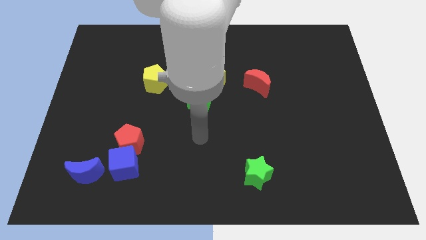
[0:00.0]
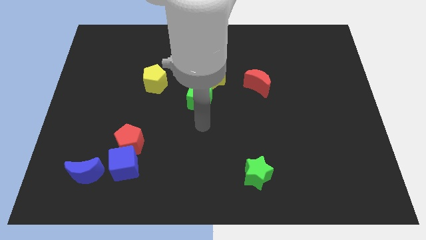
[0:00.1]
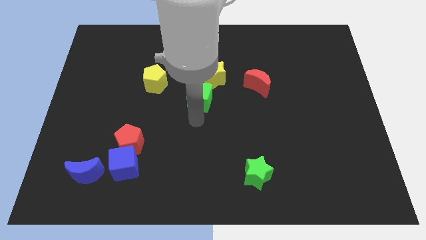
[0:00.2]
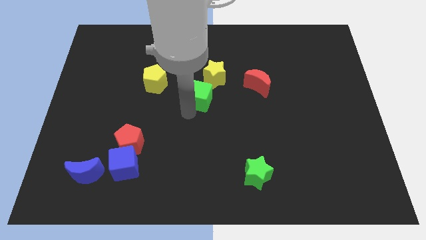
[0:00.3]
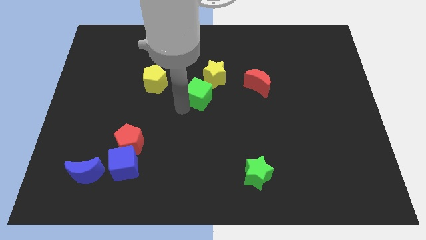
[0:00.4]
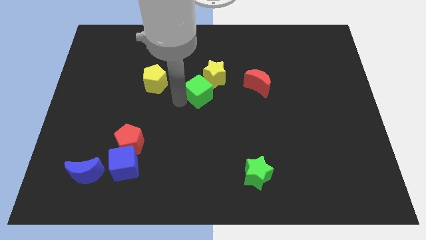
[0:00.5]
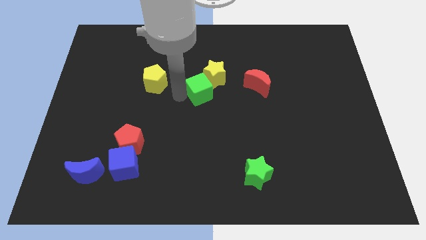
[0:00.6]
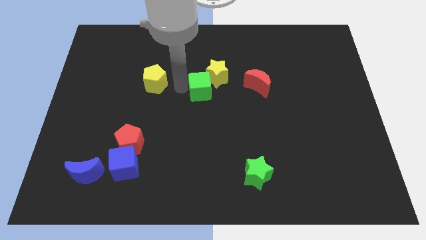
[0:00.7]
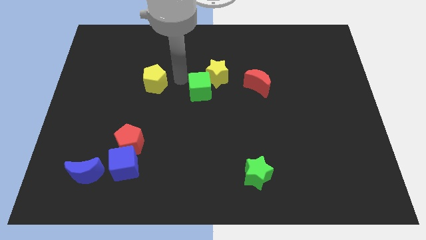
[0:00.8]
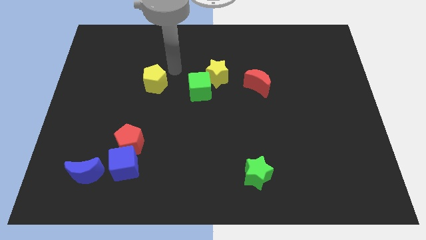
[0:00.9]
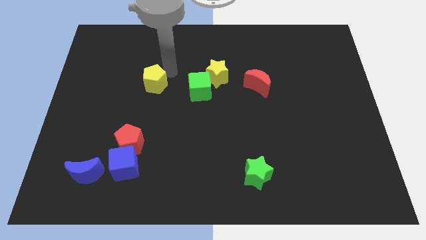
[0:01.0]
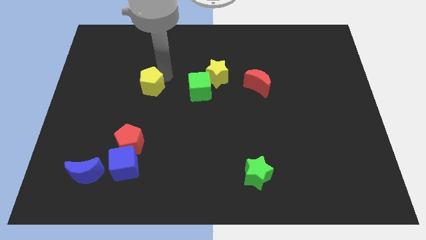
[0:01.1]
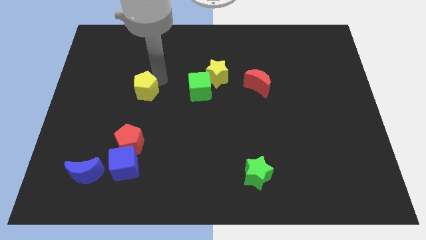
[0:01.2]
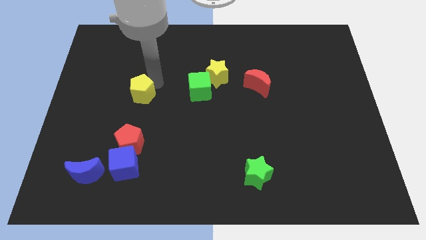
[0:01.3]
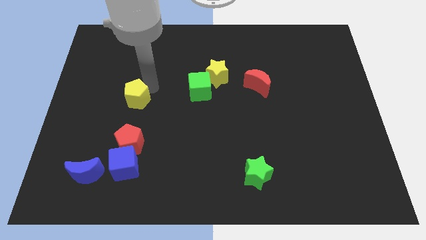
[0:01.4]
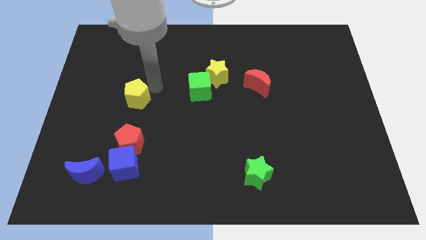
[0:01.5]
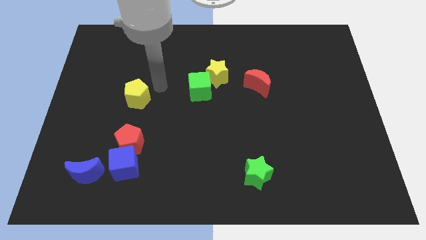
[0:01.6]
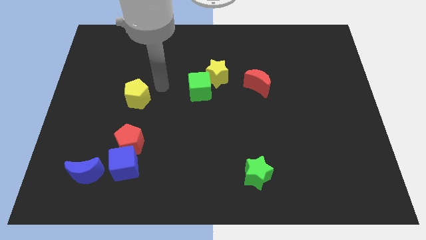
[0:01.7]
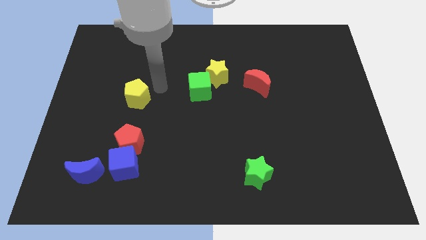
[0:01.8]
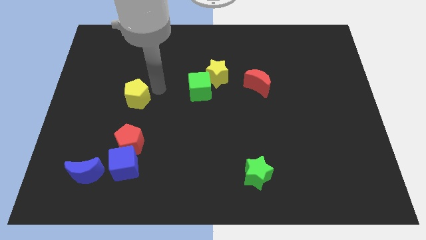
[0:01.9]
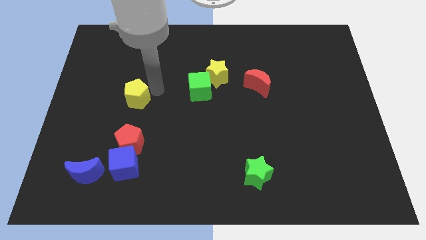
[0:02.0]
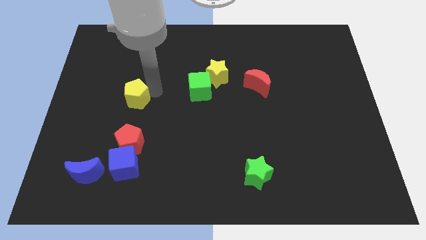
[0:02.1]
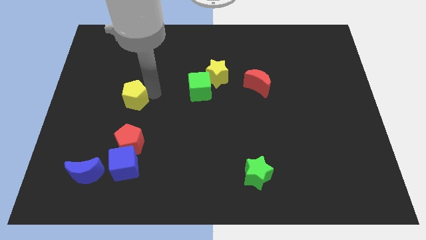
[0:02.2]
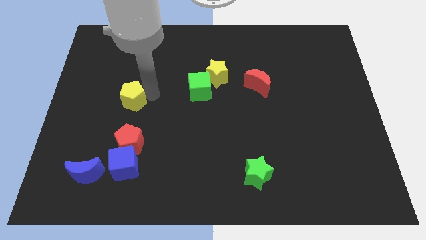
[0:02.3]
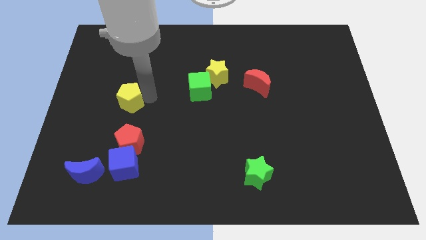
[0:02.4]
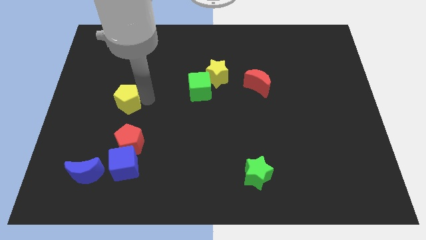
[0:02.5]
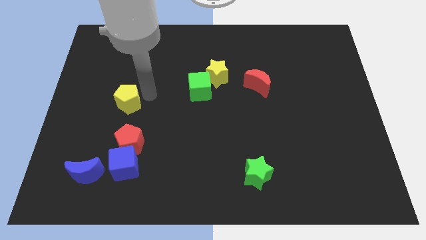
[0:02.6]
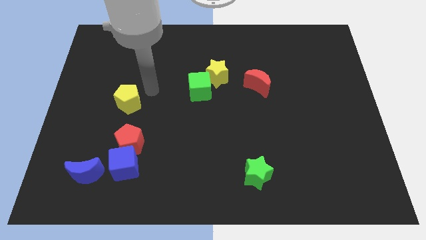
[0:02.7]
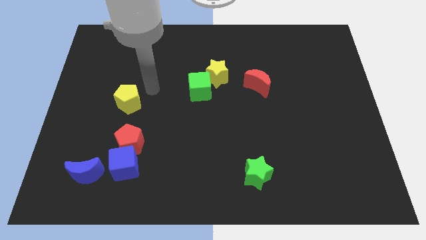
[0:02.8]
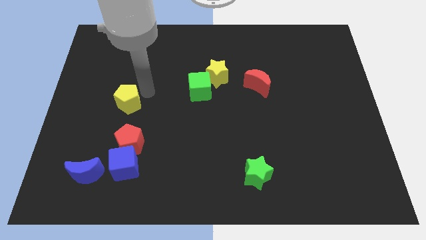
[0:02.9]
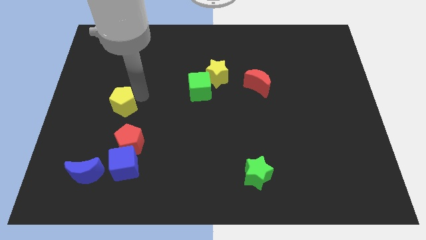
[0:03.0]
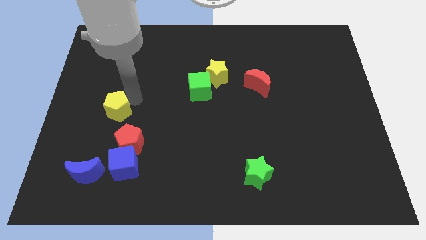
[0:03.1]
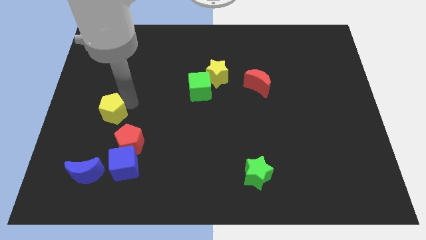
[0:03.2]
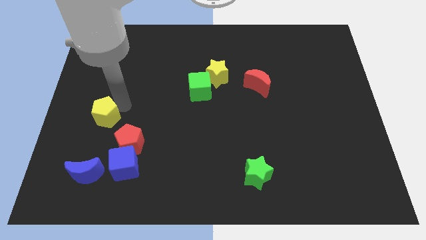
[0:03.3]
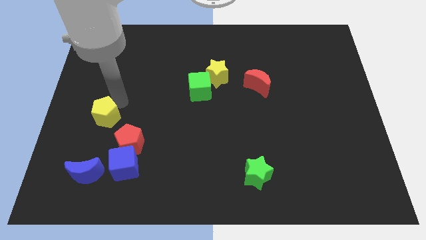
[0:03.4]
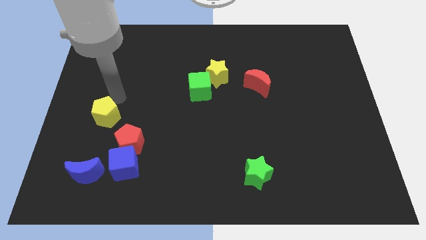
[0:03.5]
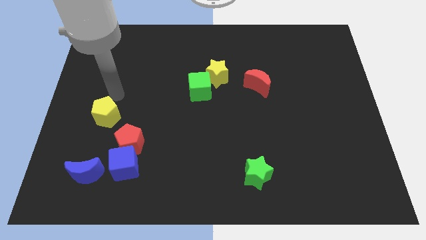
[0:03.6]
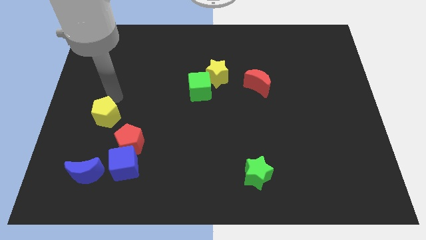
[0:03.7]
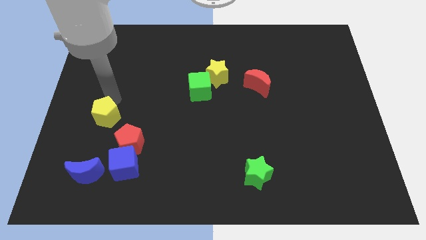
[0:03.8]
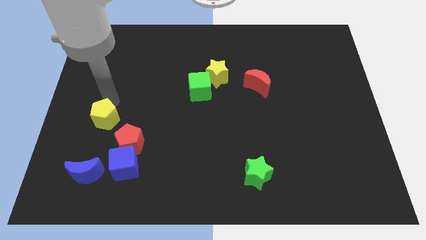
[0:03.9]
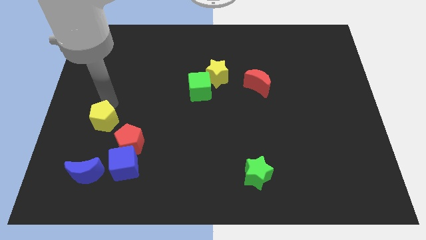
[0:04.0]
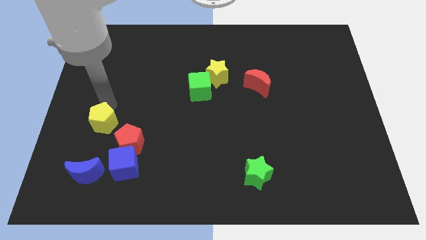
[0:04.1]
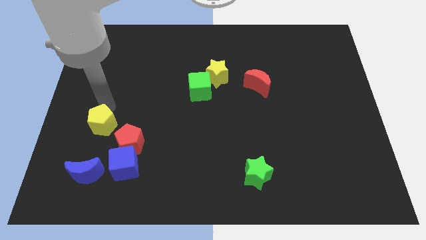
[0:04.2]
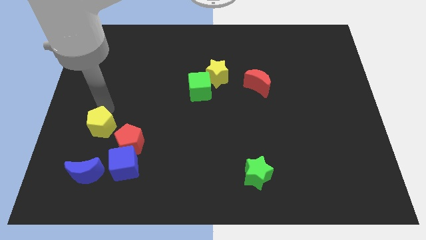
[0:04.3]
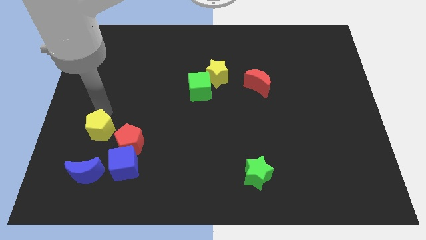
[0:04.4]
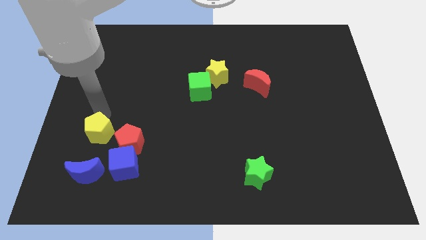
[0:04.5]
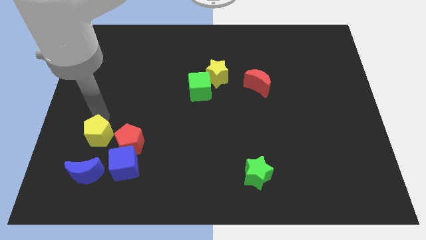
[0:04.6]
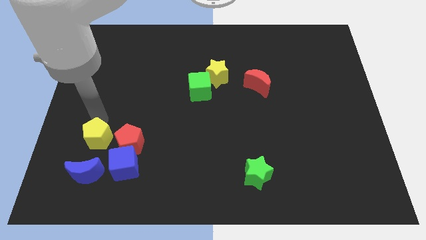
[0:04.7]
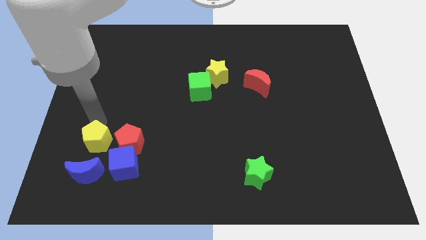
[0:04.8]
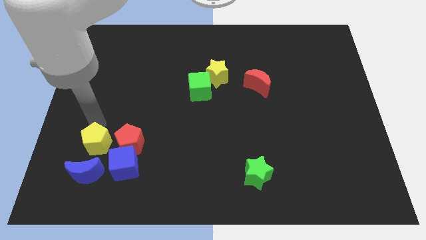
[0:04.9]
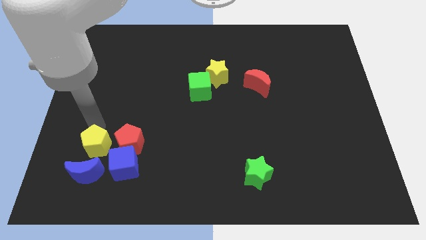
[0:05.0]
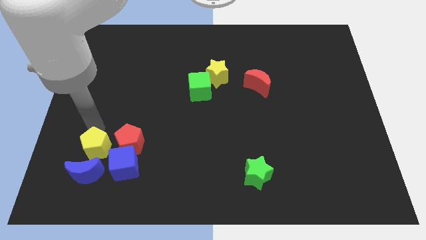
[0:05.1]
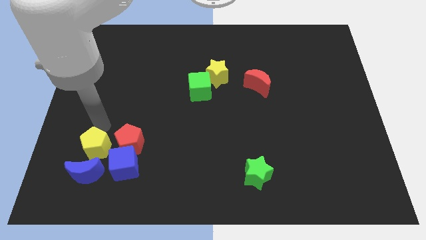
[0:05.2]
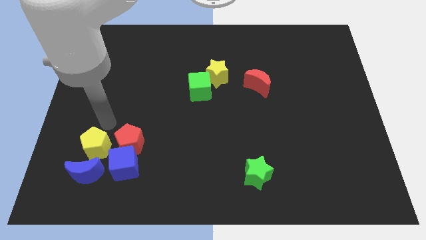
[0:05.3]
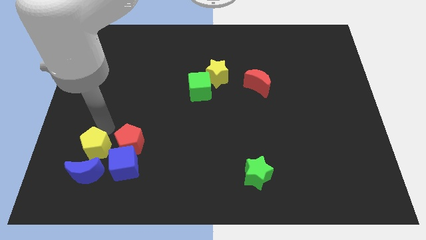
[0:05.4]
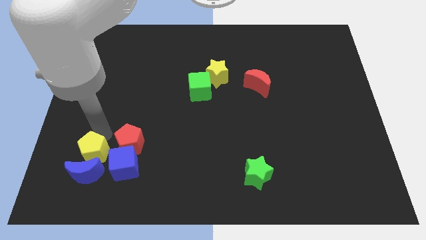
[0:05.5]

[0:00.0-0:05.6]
put the yellow pentagon close to the blue moon

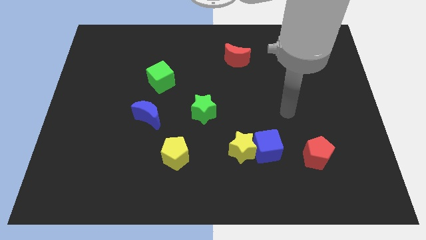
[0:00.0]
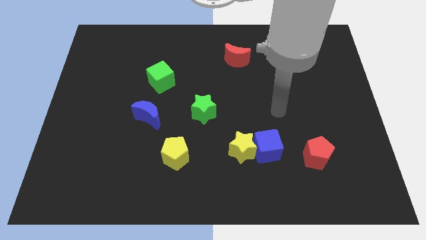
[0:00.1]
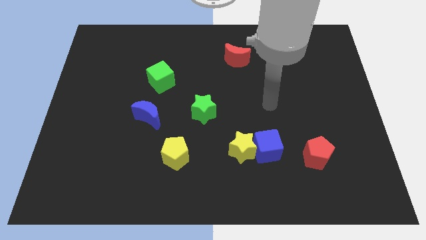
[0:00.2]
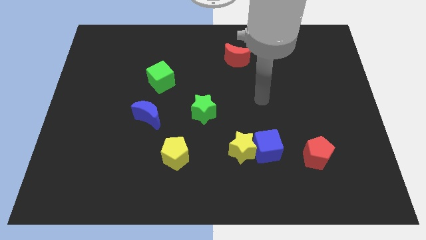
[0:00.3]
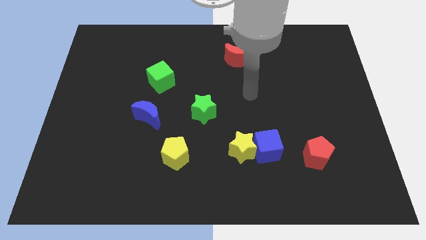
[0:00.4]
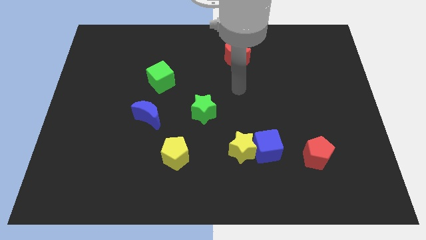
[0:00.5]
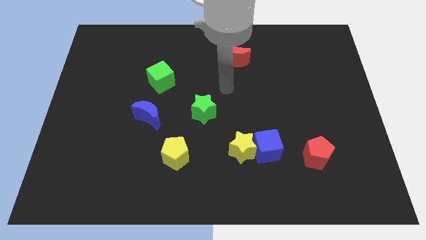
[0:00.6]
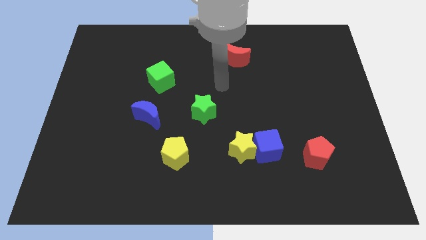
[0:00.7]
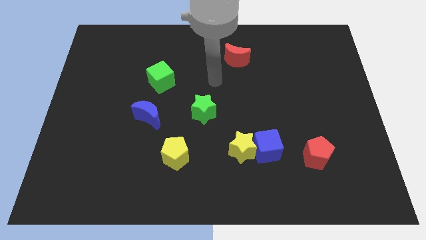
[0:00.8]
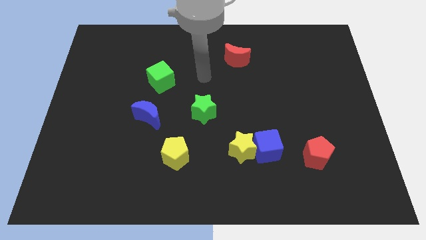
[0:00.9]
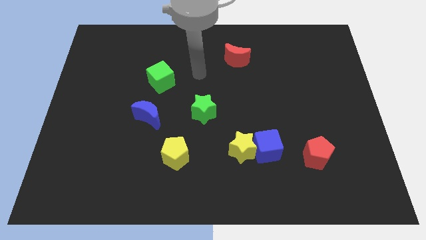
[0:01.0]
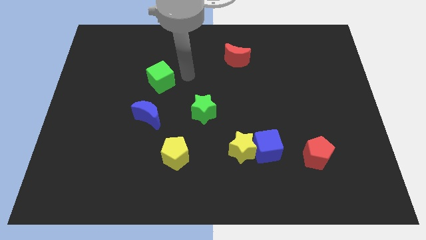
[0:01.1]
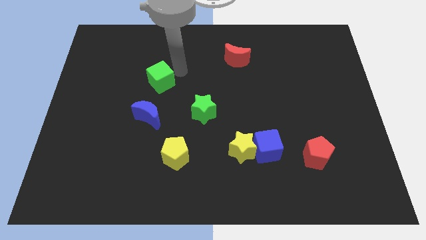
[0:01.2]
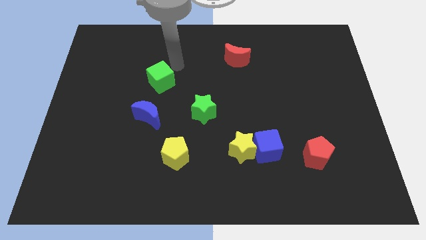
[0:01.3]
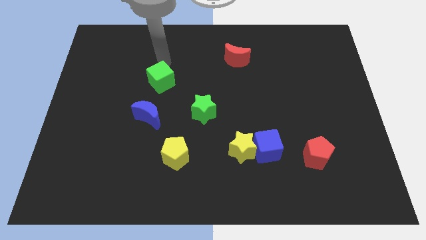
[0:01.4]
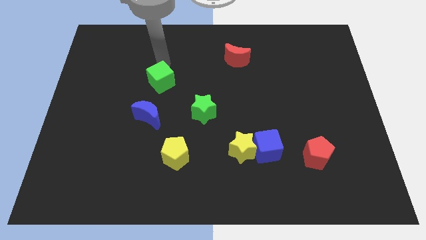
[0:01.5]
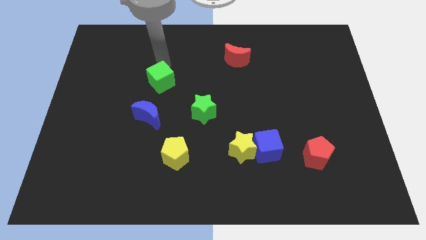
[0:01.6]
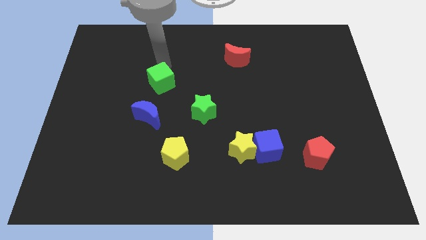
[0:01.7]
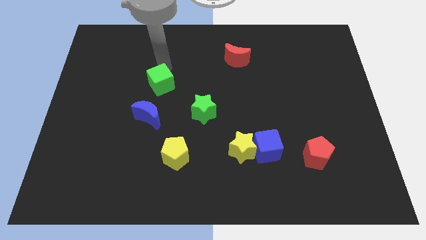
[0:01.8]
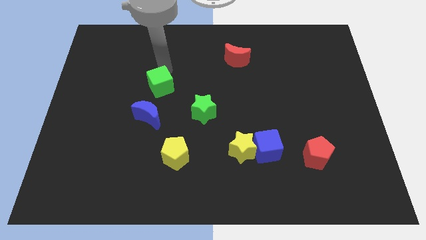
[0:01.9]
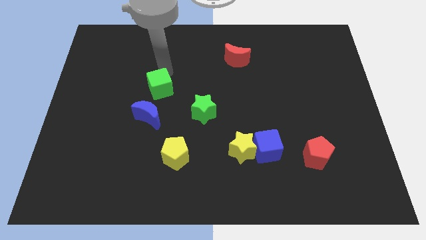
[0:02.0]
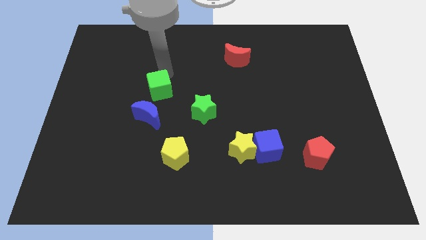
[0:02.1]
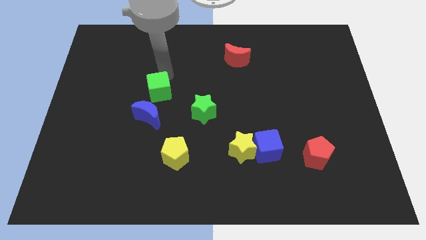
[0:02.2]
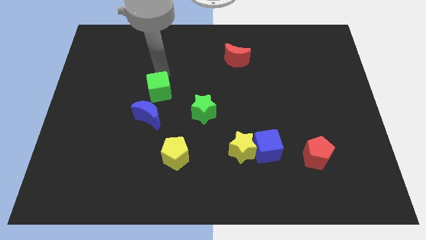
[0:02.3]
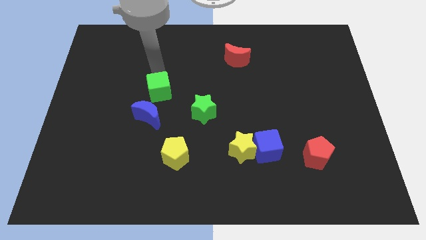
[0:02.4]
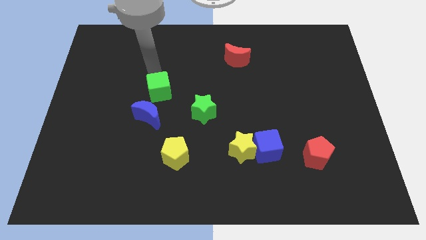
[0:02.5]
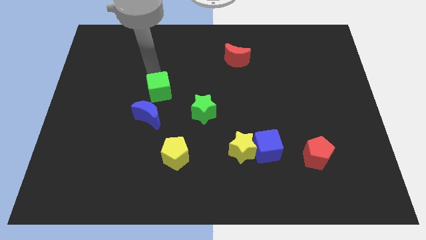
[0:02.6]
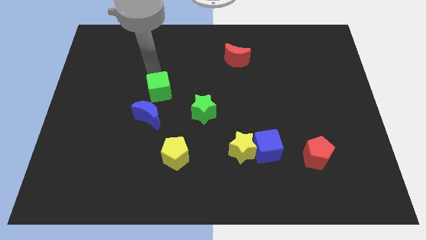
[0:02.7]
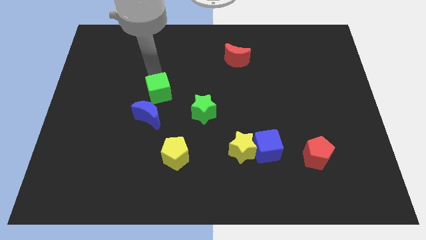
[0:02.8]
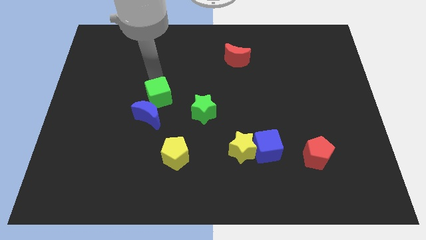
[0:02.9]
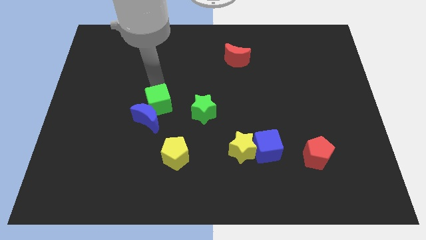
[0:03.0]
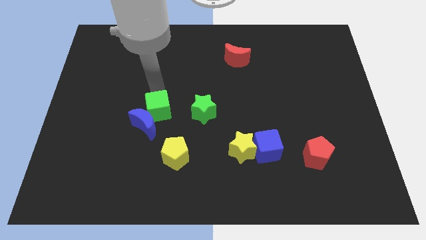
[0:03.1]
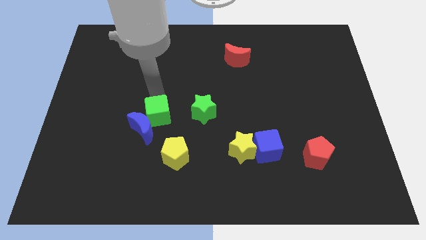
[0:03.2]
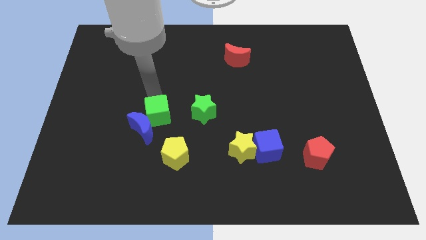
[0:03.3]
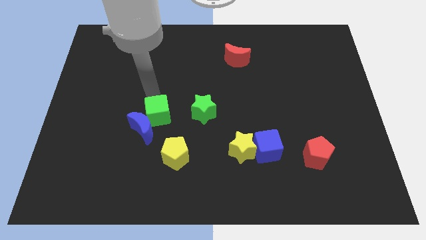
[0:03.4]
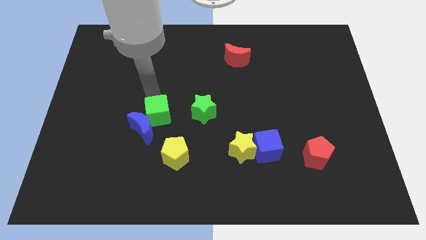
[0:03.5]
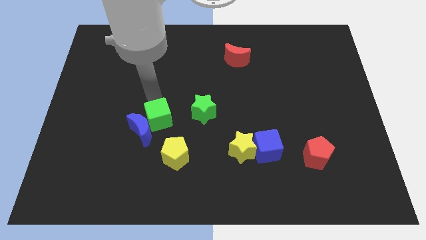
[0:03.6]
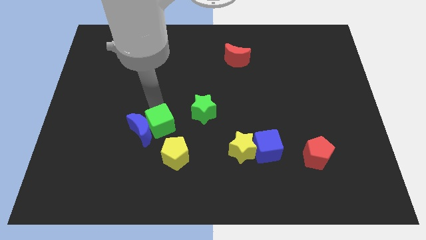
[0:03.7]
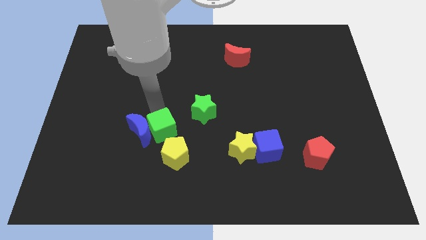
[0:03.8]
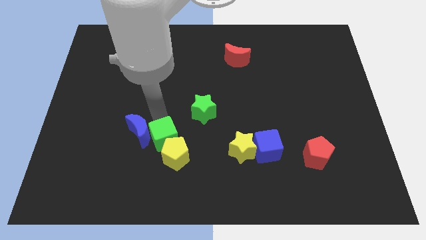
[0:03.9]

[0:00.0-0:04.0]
put the green cube towards the yellow pentagon
